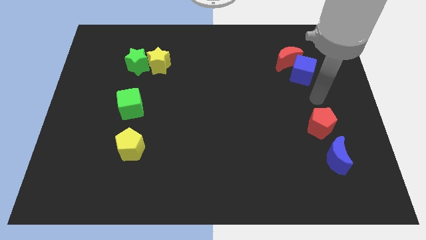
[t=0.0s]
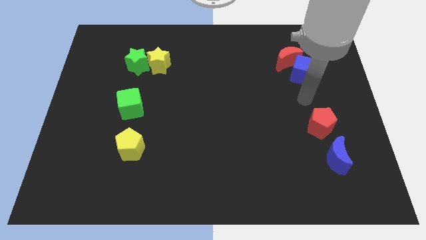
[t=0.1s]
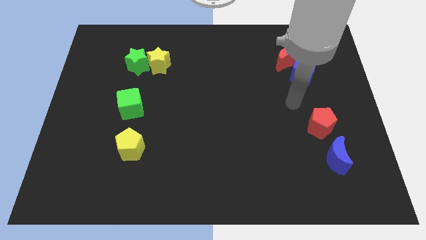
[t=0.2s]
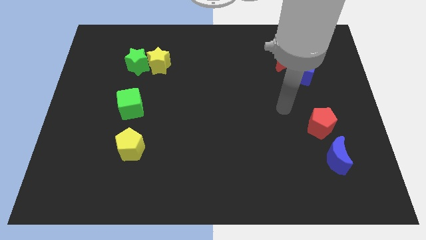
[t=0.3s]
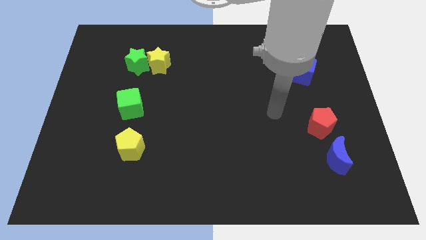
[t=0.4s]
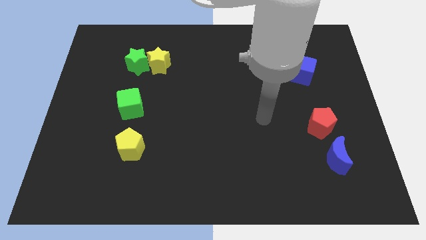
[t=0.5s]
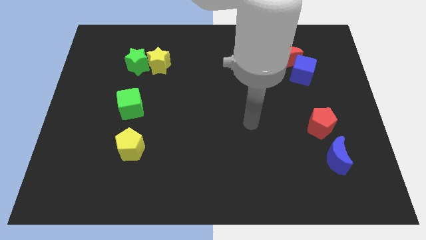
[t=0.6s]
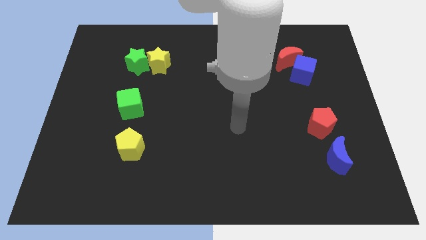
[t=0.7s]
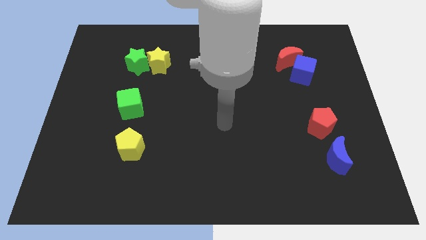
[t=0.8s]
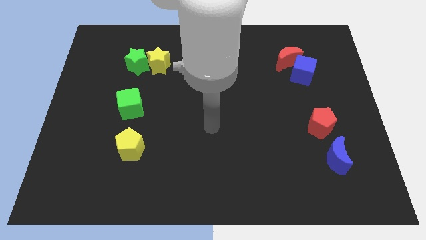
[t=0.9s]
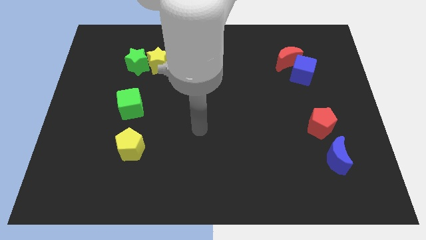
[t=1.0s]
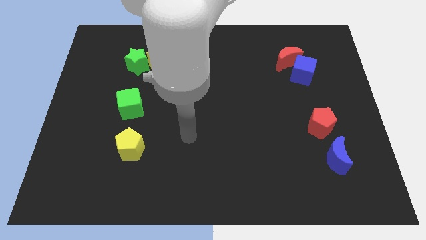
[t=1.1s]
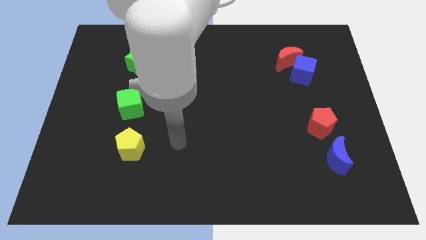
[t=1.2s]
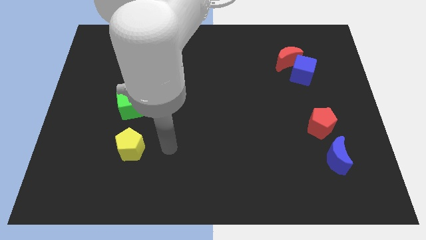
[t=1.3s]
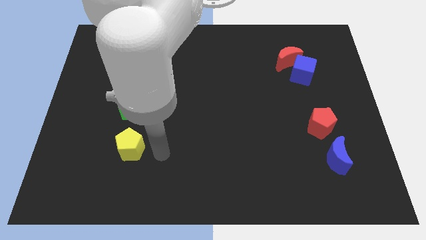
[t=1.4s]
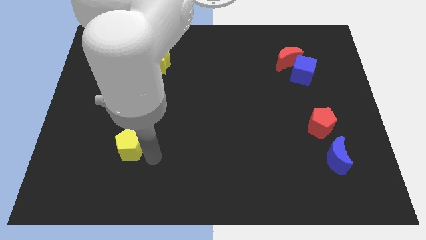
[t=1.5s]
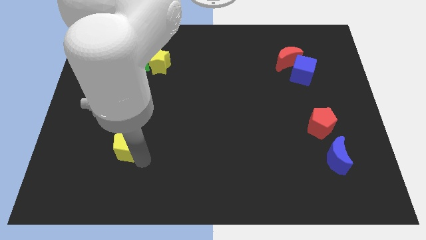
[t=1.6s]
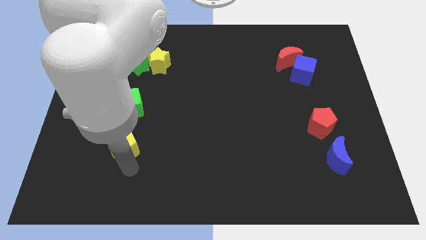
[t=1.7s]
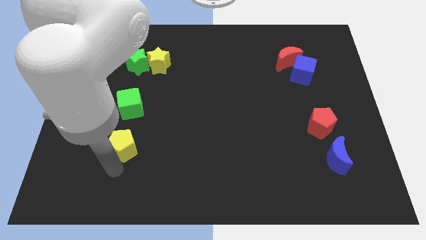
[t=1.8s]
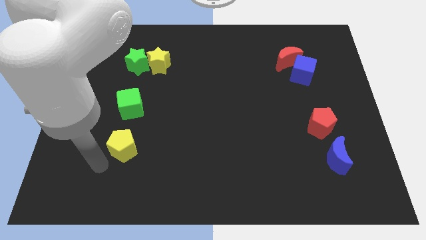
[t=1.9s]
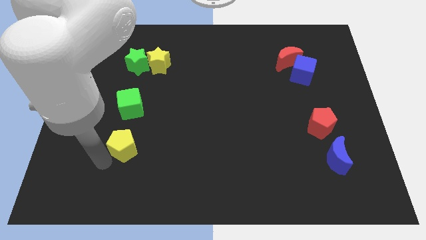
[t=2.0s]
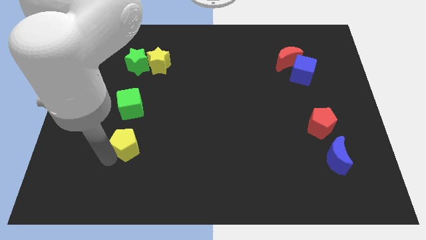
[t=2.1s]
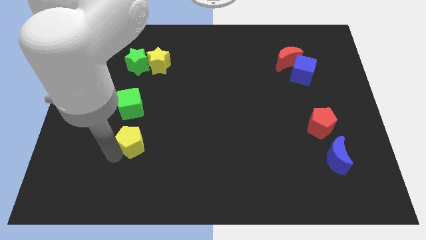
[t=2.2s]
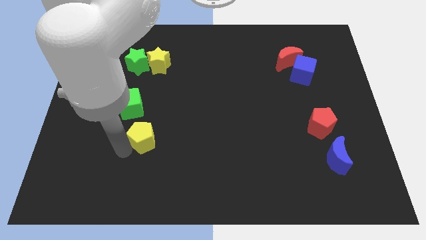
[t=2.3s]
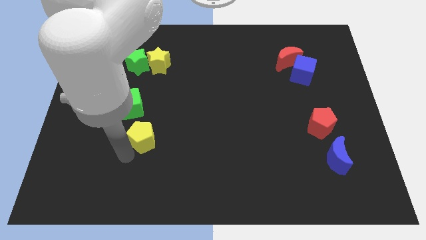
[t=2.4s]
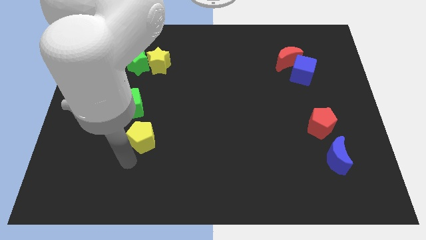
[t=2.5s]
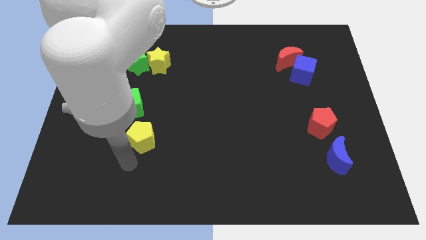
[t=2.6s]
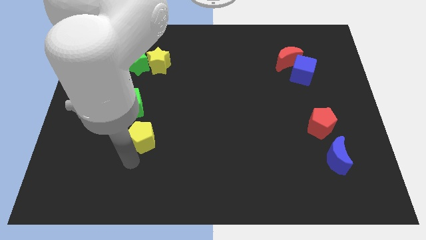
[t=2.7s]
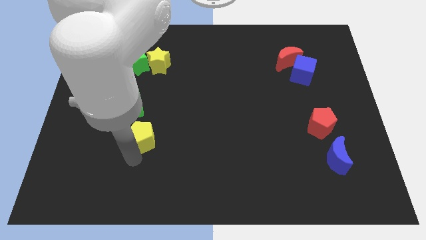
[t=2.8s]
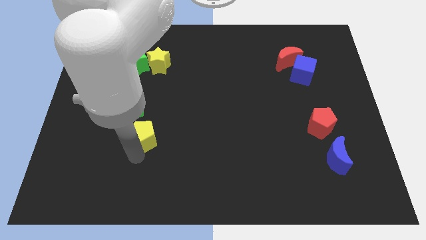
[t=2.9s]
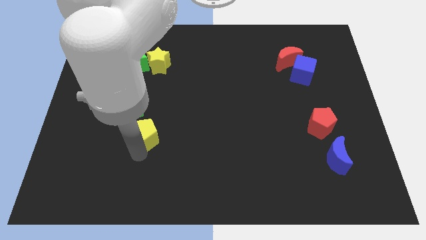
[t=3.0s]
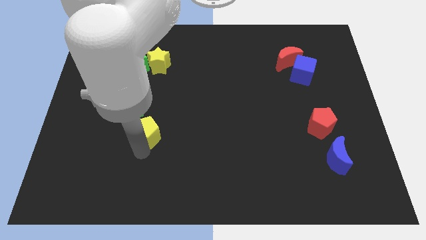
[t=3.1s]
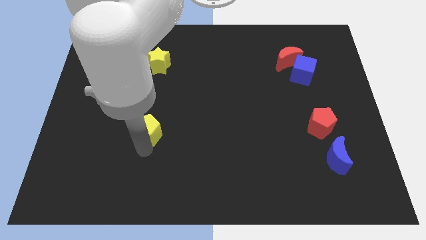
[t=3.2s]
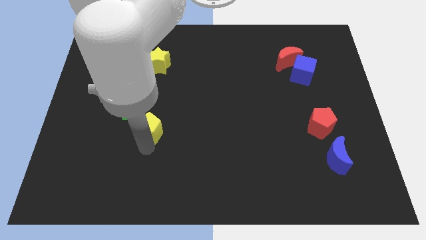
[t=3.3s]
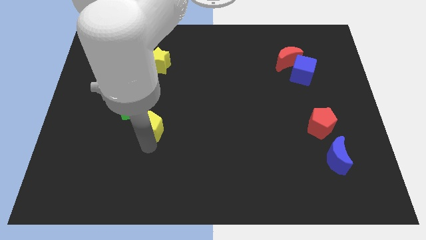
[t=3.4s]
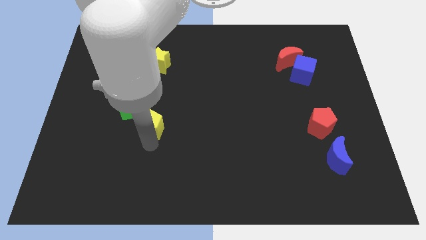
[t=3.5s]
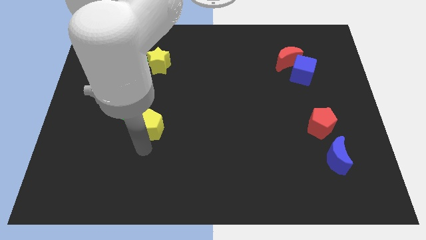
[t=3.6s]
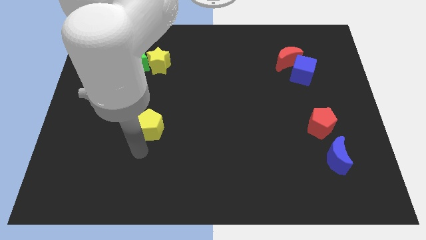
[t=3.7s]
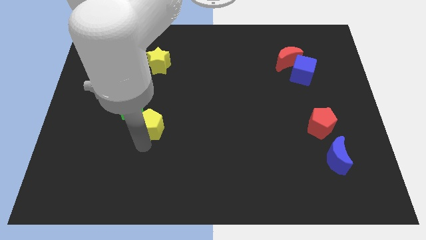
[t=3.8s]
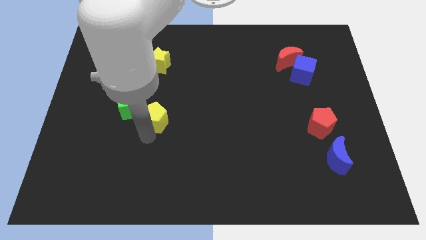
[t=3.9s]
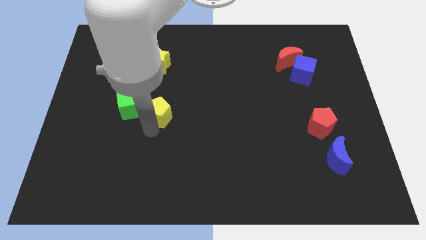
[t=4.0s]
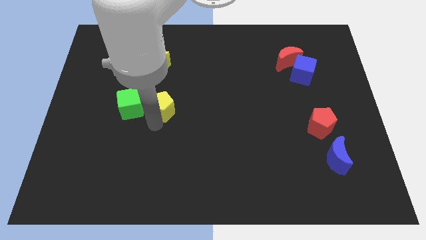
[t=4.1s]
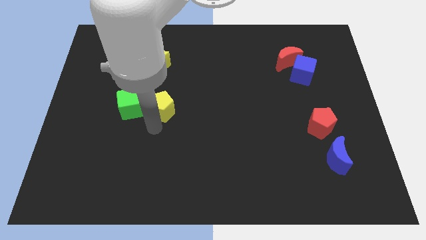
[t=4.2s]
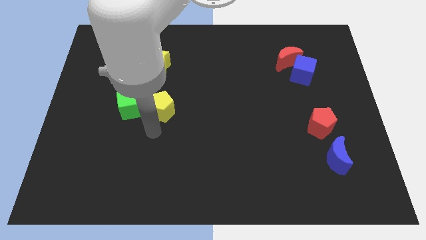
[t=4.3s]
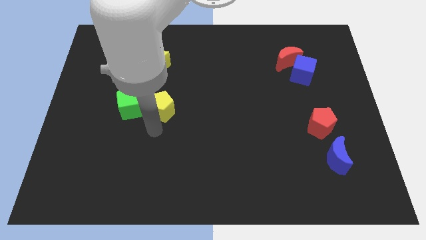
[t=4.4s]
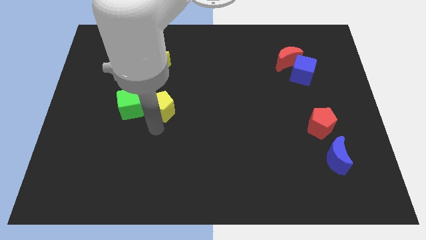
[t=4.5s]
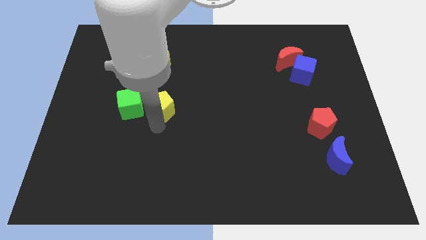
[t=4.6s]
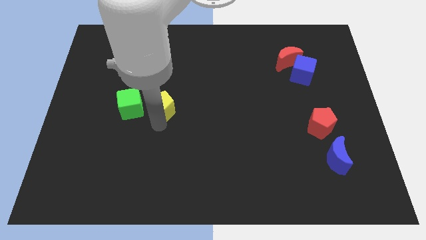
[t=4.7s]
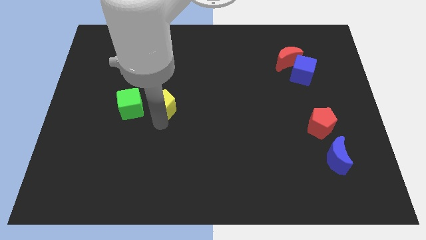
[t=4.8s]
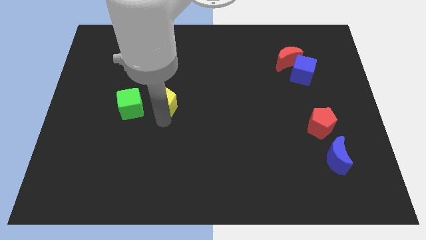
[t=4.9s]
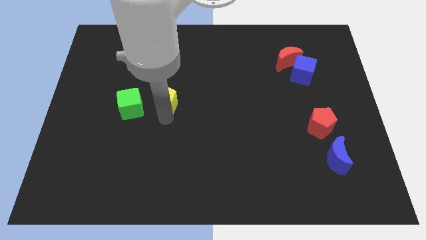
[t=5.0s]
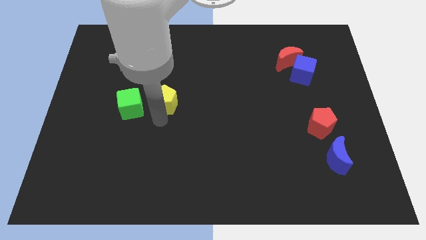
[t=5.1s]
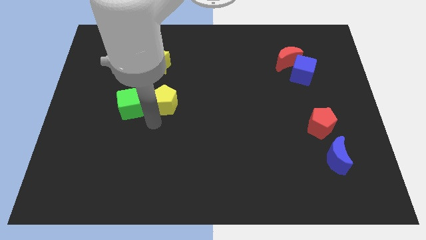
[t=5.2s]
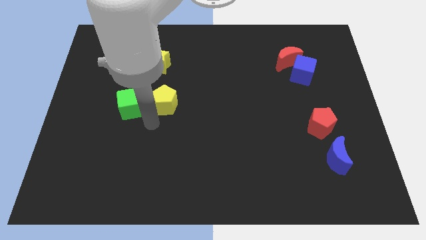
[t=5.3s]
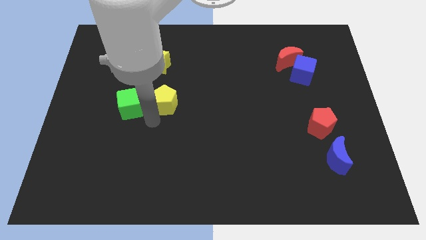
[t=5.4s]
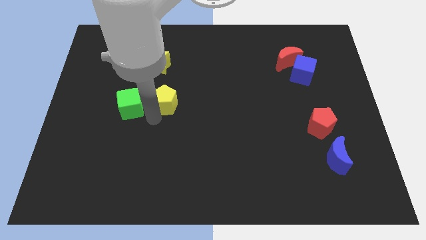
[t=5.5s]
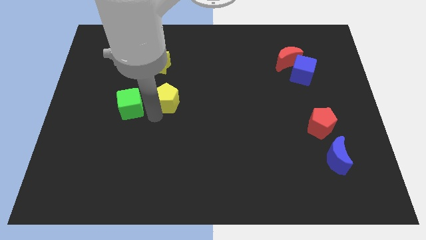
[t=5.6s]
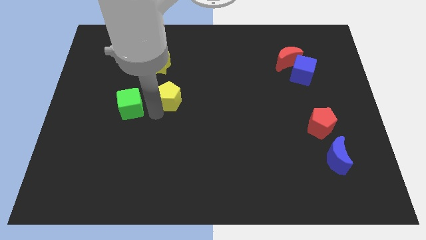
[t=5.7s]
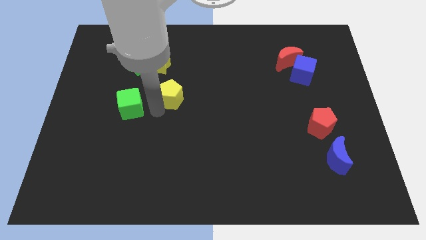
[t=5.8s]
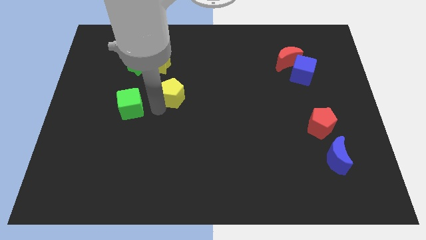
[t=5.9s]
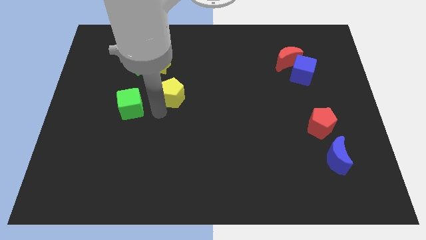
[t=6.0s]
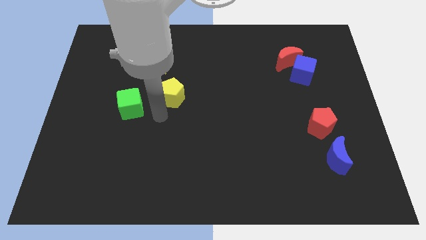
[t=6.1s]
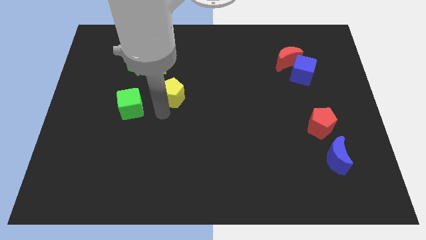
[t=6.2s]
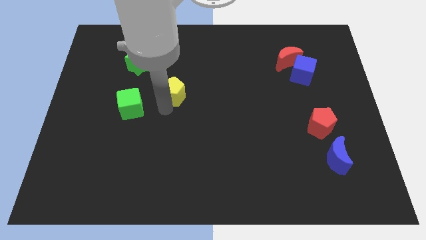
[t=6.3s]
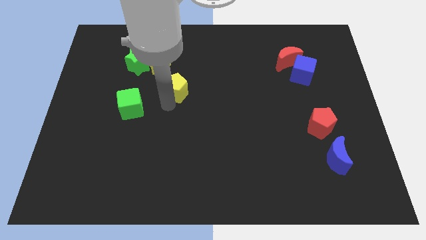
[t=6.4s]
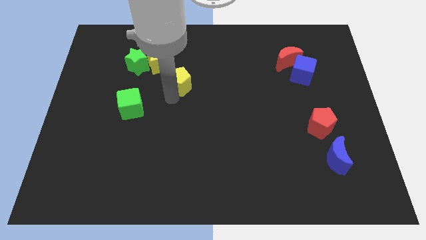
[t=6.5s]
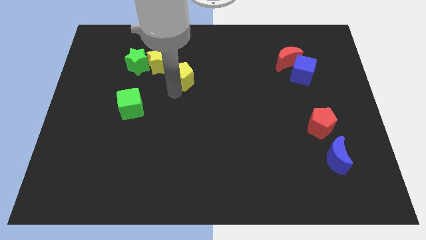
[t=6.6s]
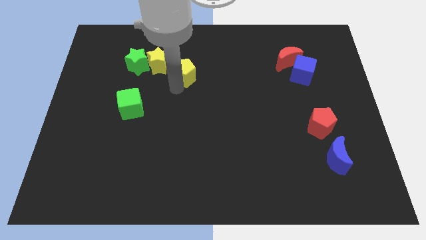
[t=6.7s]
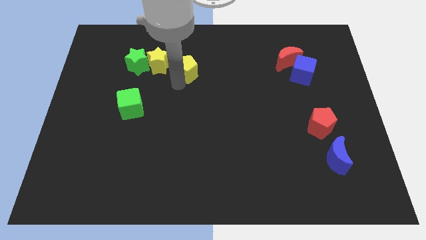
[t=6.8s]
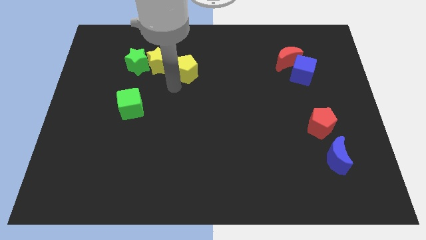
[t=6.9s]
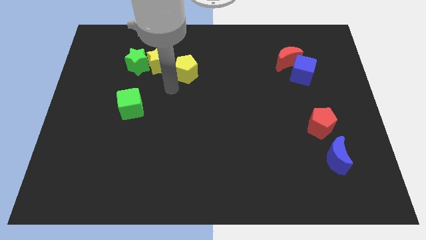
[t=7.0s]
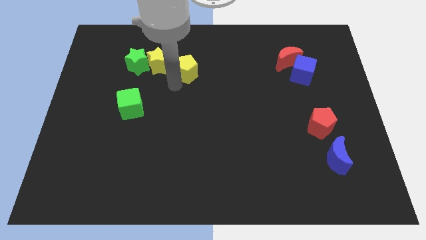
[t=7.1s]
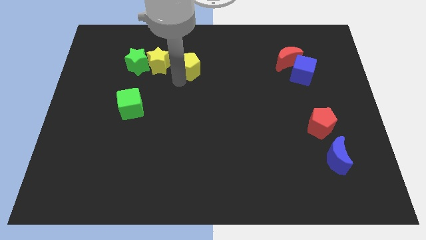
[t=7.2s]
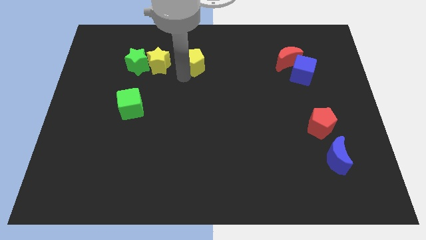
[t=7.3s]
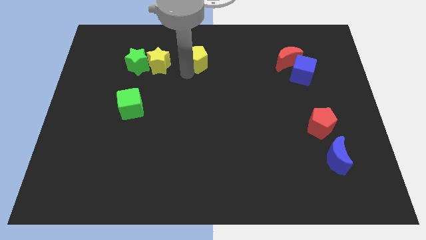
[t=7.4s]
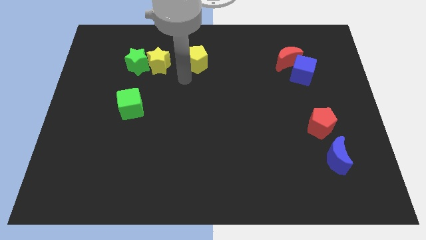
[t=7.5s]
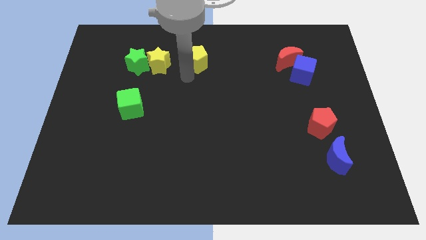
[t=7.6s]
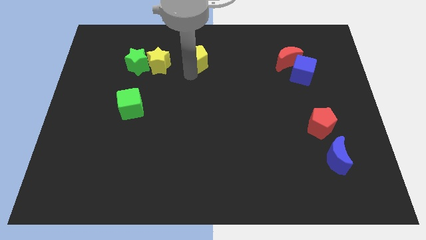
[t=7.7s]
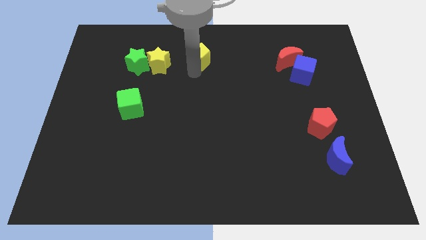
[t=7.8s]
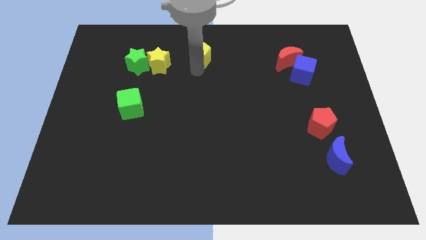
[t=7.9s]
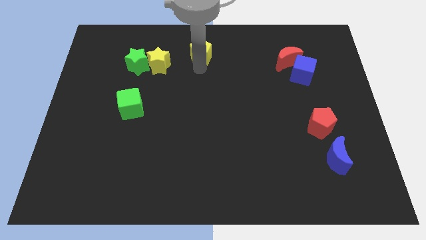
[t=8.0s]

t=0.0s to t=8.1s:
push the yellow pentagon to the towards your base
